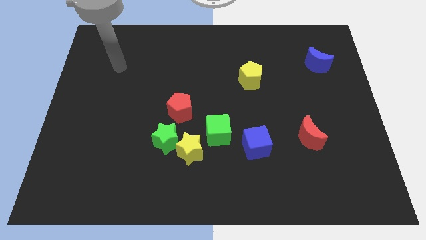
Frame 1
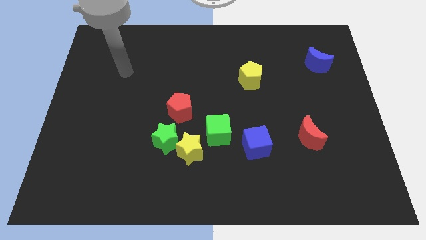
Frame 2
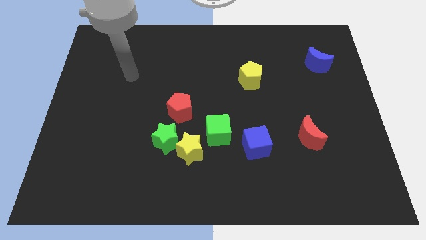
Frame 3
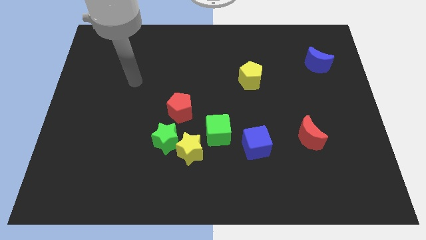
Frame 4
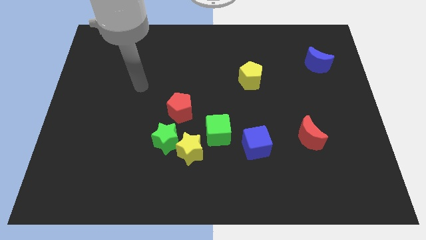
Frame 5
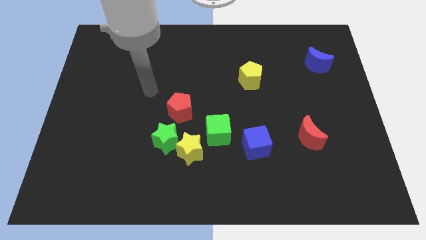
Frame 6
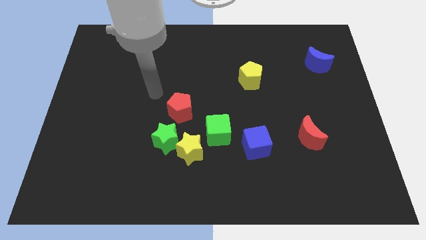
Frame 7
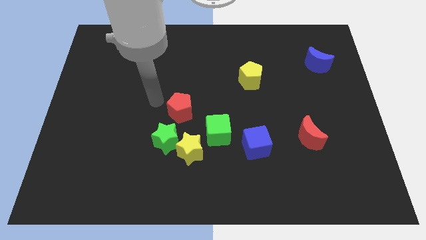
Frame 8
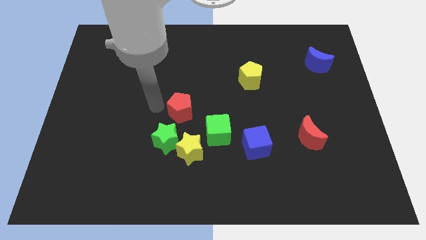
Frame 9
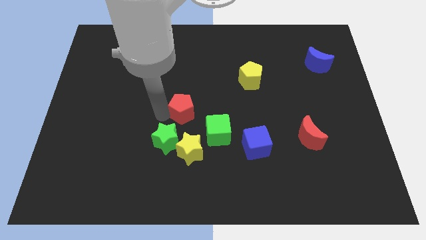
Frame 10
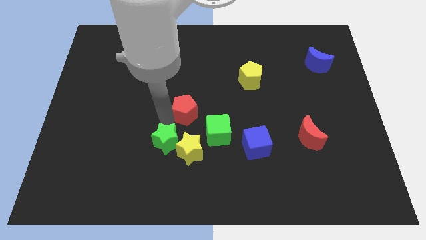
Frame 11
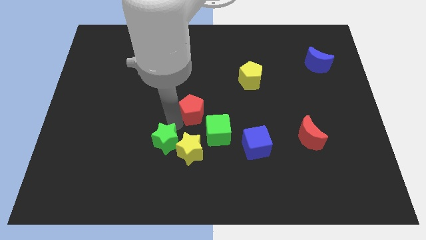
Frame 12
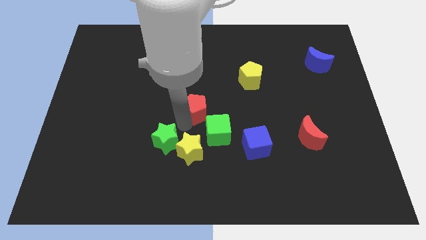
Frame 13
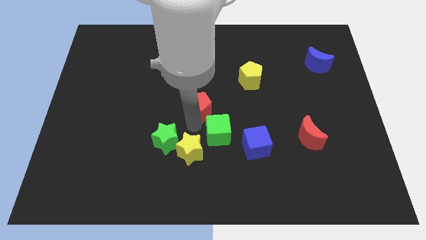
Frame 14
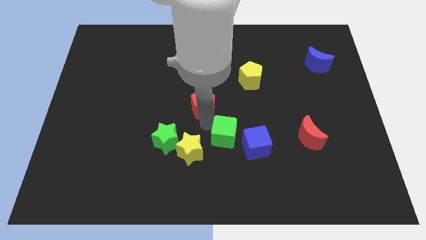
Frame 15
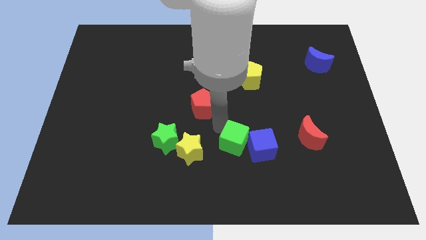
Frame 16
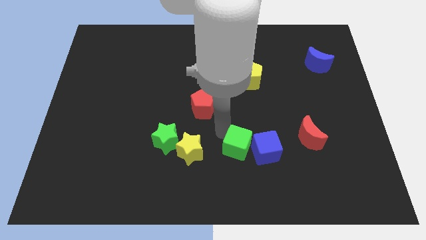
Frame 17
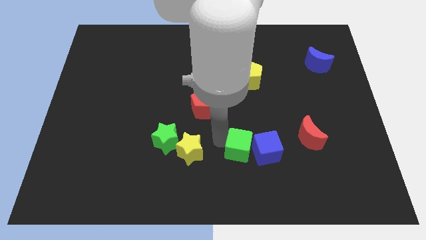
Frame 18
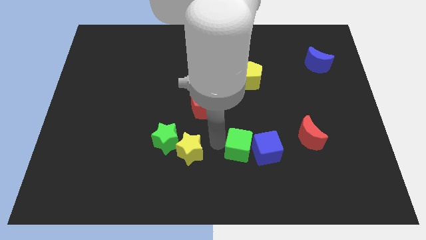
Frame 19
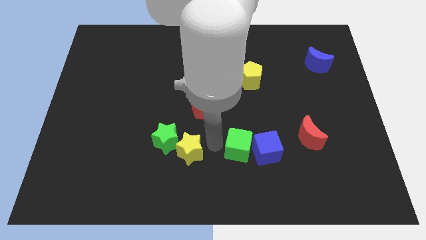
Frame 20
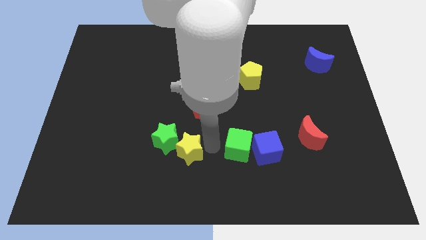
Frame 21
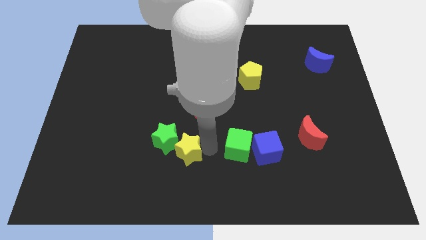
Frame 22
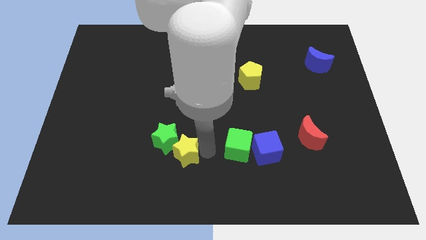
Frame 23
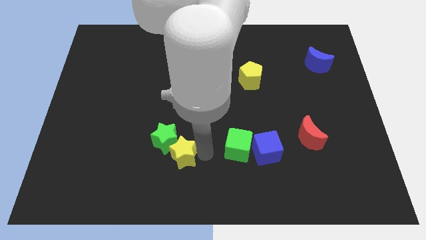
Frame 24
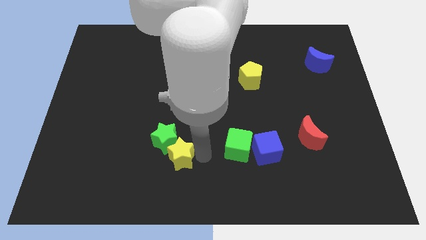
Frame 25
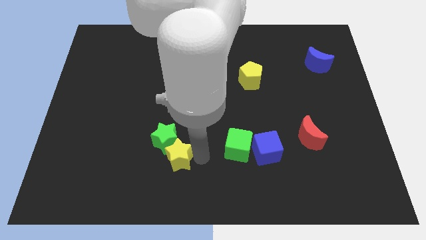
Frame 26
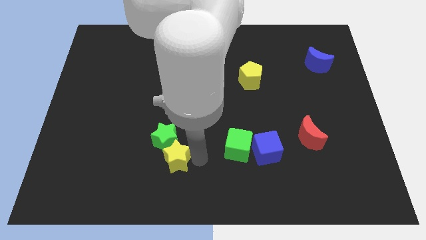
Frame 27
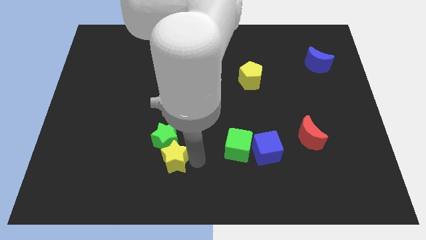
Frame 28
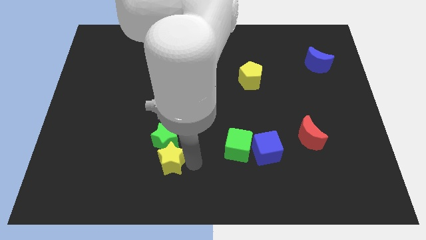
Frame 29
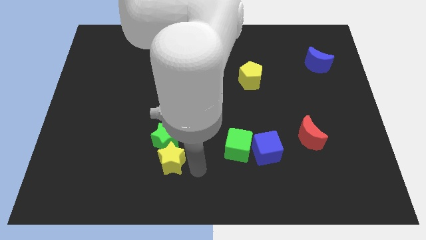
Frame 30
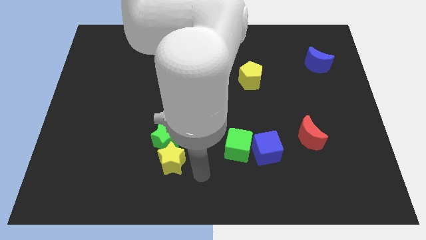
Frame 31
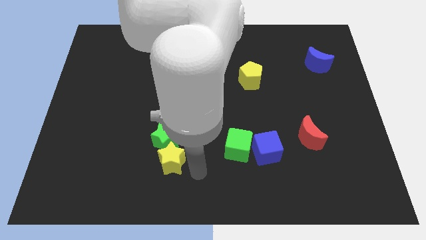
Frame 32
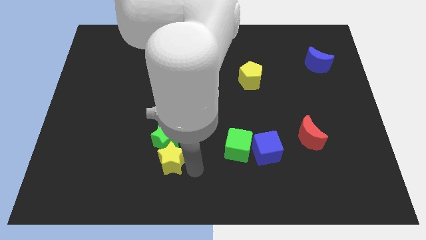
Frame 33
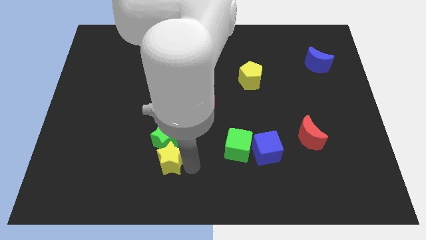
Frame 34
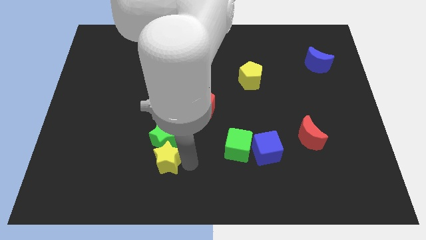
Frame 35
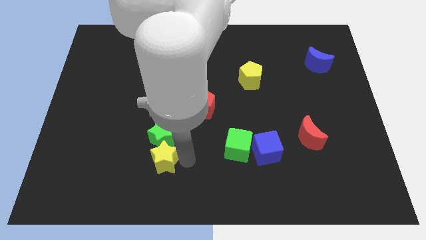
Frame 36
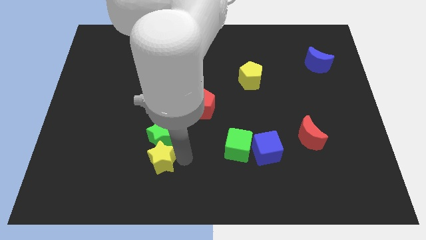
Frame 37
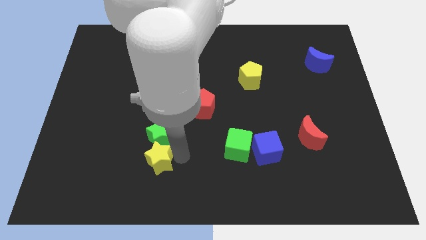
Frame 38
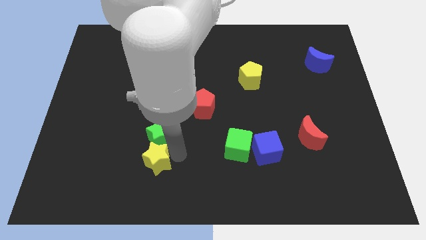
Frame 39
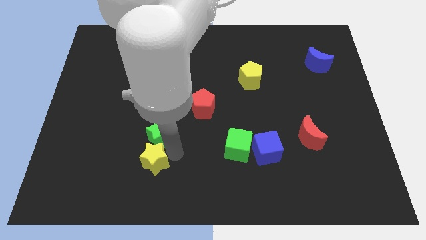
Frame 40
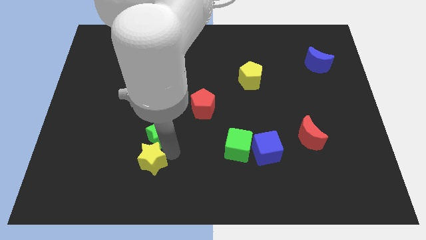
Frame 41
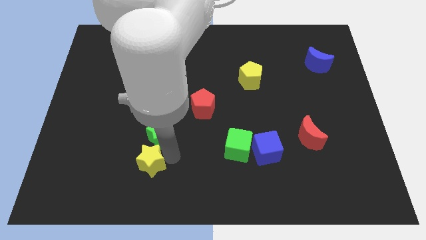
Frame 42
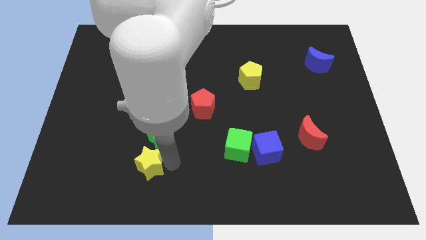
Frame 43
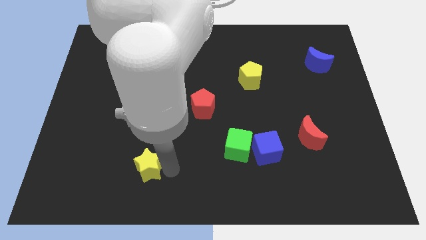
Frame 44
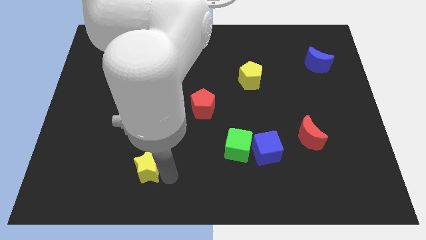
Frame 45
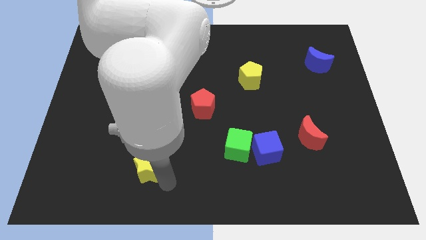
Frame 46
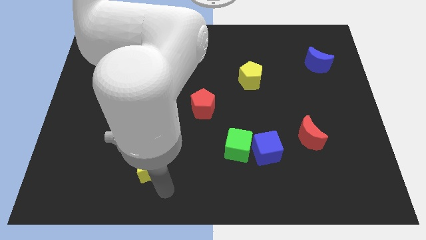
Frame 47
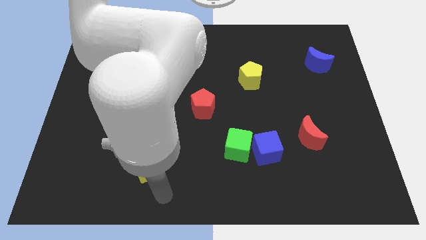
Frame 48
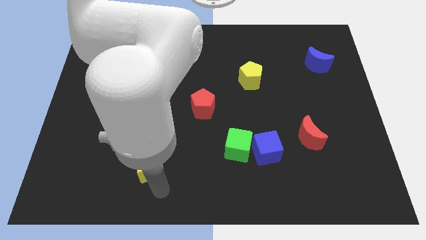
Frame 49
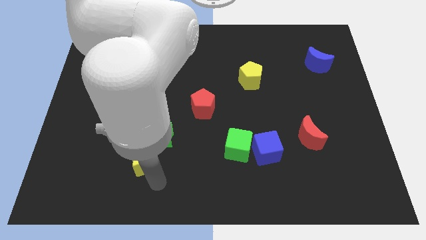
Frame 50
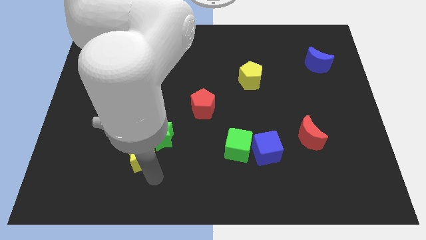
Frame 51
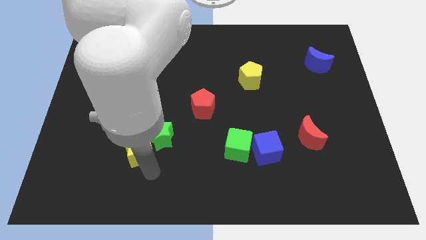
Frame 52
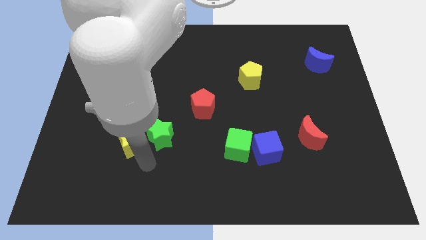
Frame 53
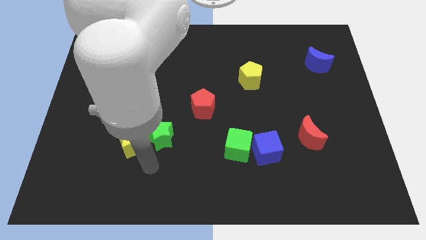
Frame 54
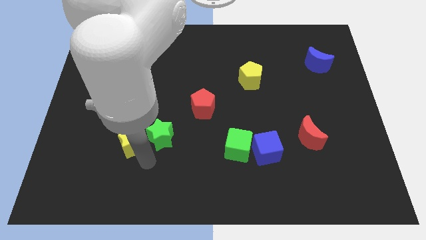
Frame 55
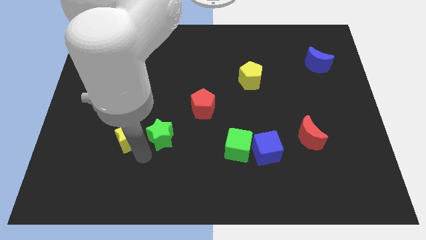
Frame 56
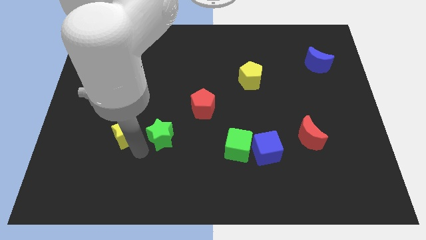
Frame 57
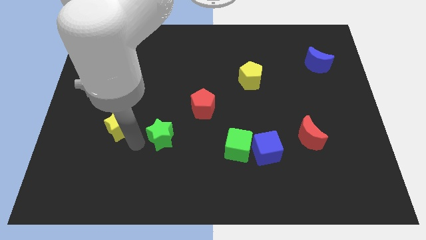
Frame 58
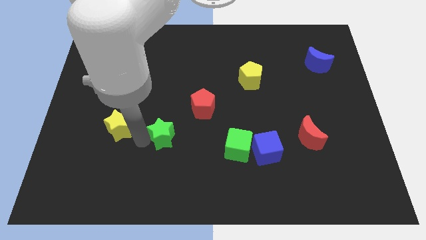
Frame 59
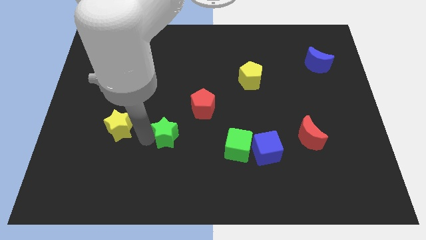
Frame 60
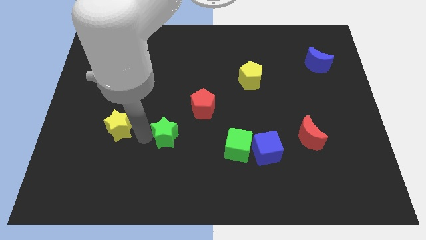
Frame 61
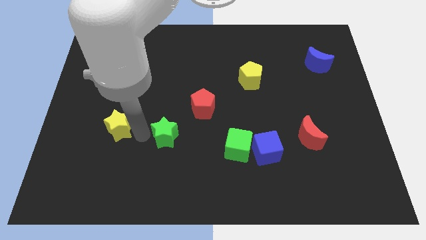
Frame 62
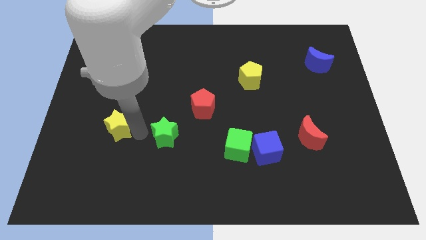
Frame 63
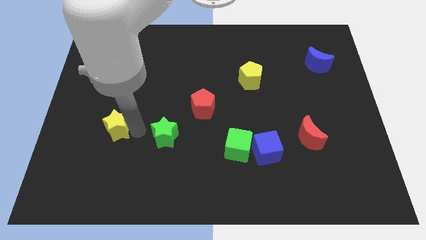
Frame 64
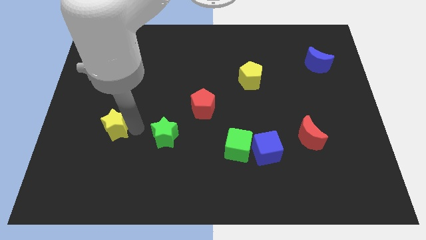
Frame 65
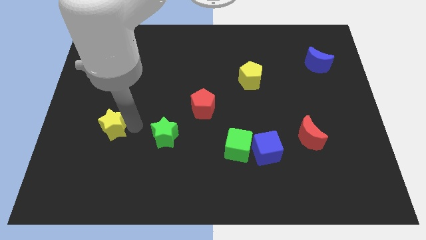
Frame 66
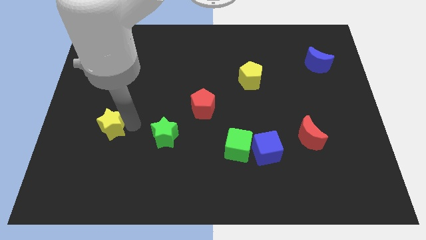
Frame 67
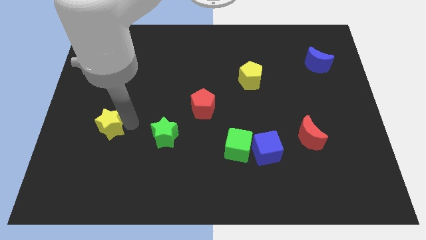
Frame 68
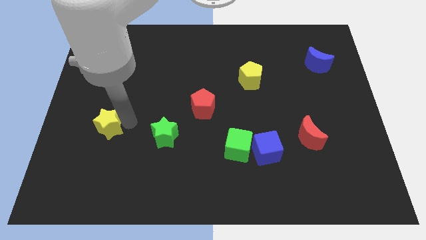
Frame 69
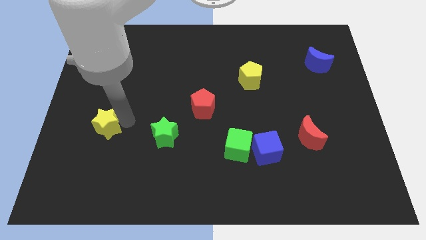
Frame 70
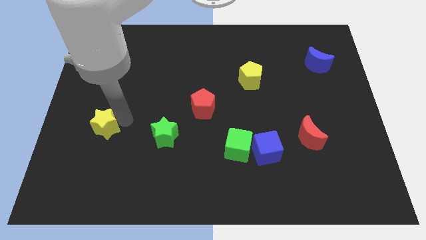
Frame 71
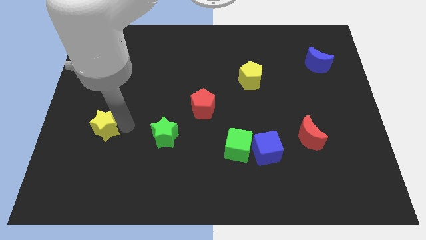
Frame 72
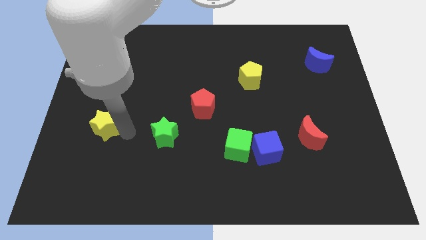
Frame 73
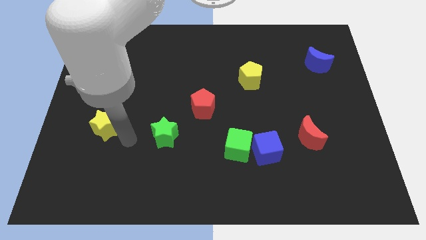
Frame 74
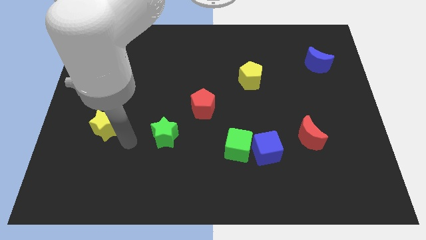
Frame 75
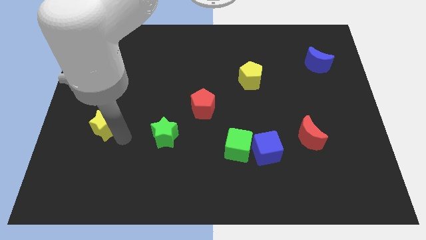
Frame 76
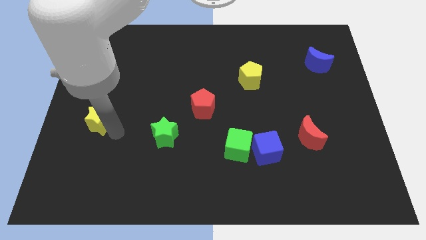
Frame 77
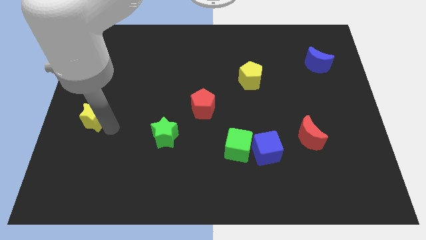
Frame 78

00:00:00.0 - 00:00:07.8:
move the yellow star to the left side
